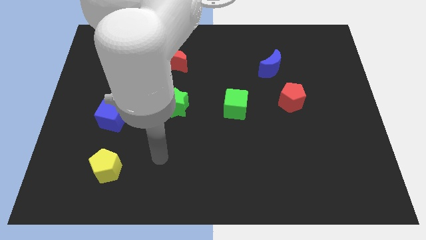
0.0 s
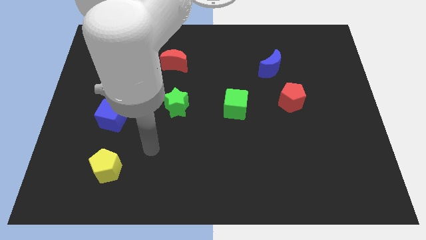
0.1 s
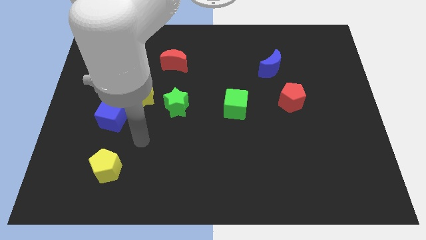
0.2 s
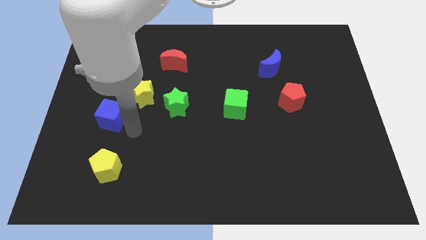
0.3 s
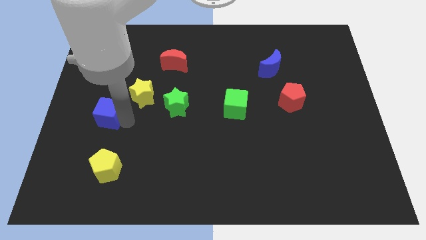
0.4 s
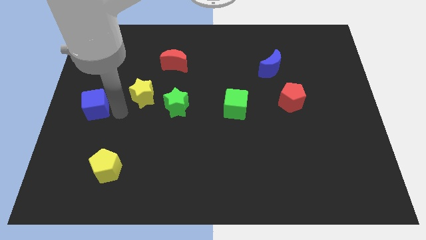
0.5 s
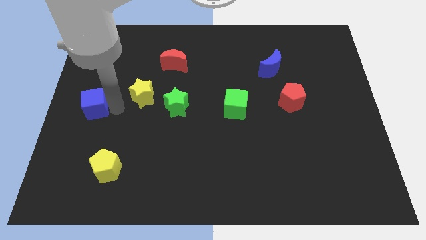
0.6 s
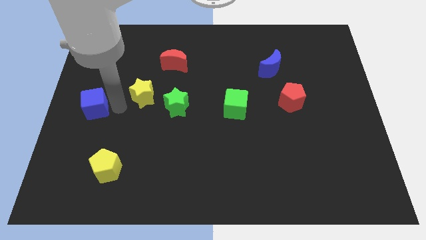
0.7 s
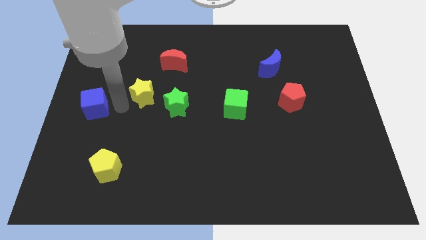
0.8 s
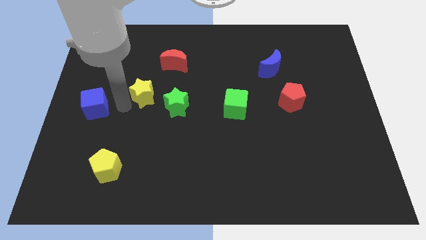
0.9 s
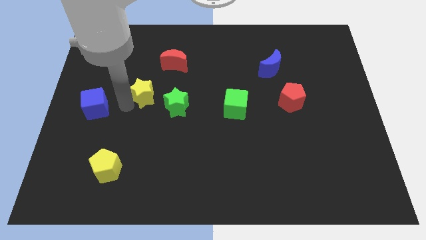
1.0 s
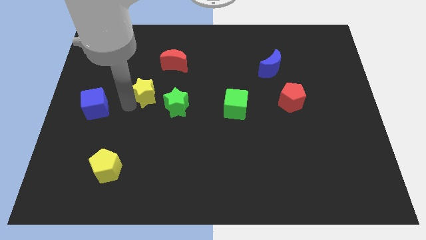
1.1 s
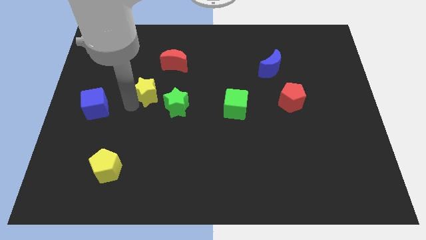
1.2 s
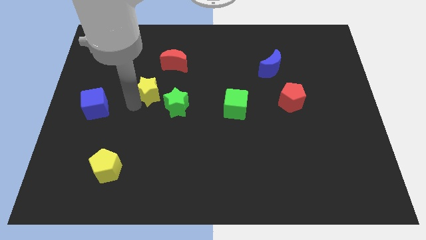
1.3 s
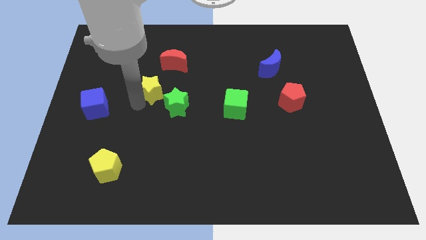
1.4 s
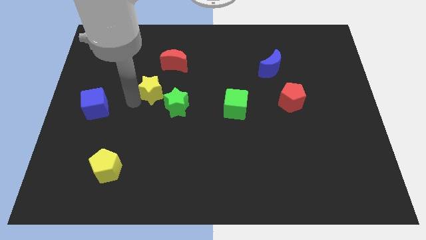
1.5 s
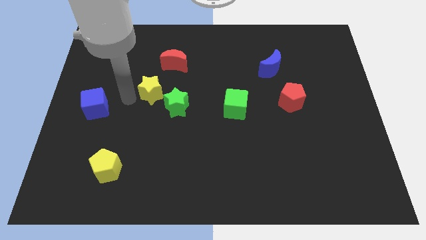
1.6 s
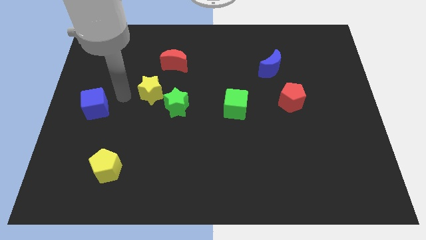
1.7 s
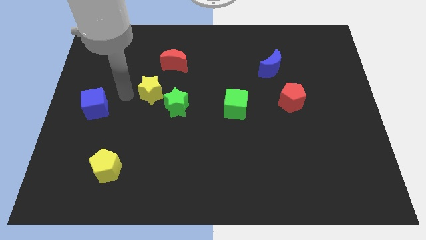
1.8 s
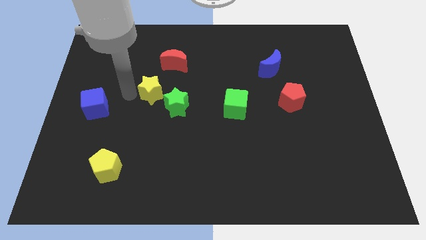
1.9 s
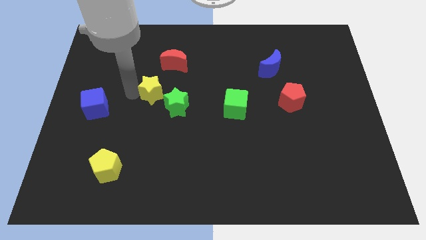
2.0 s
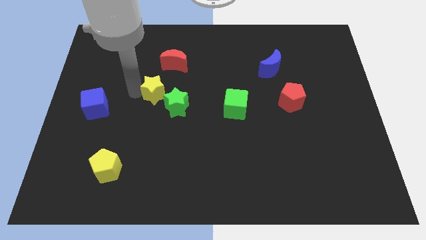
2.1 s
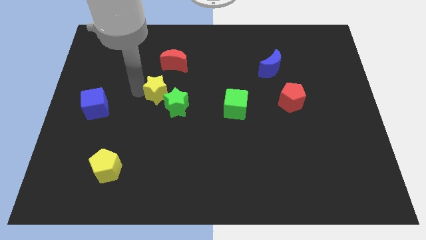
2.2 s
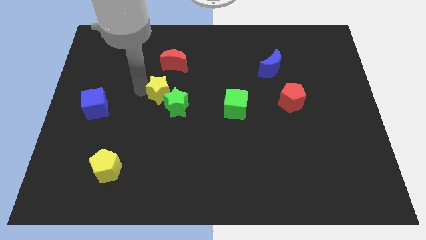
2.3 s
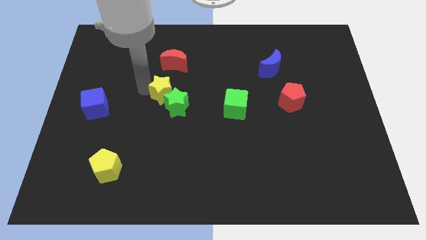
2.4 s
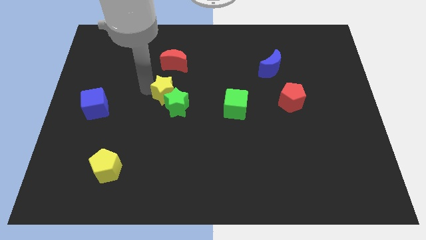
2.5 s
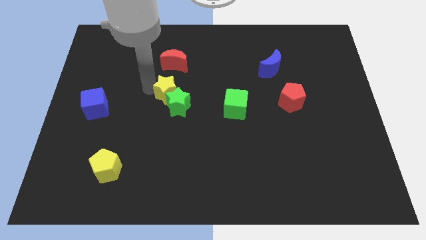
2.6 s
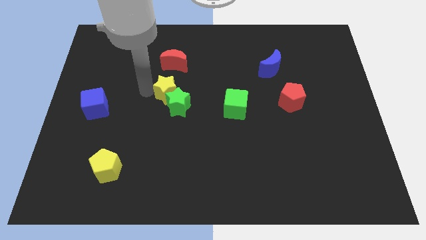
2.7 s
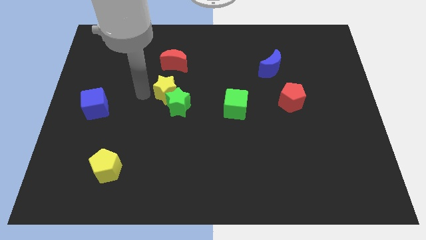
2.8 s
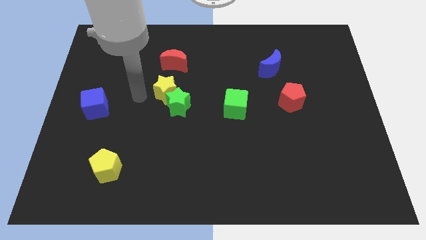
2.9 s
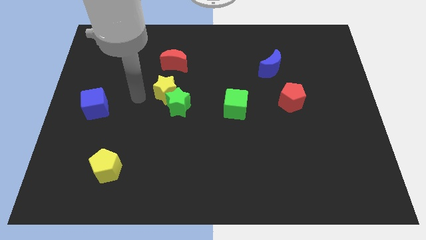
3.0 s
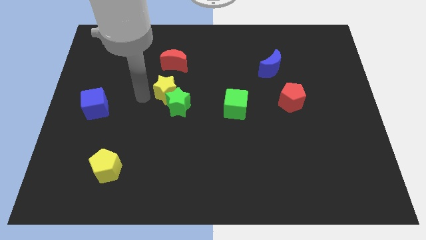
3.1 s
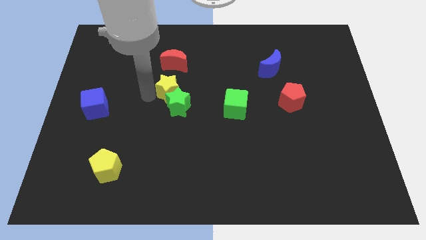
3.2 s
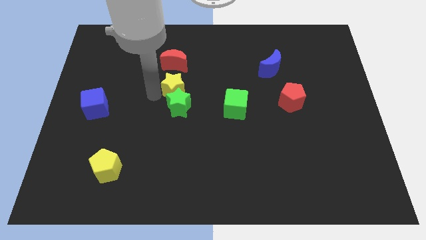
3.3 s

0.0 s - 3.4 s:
slightly slide the yellow star right

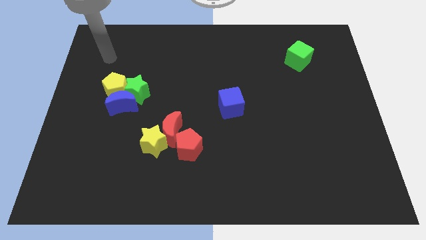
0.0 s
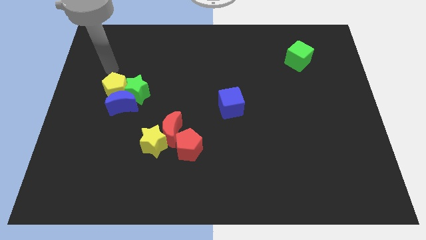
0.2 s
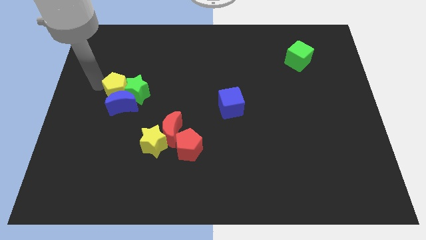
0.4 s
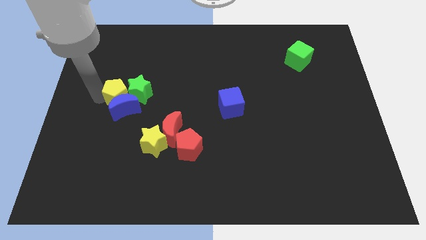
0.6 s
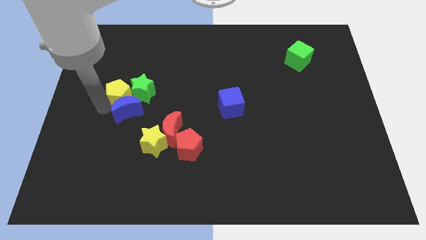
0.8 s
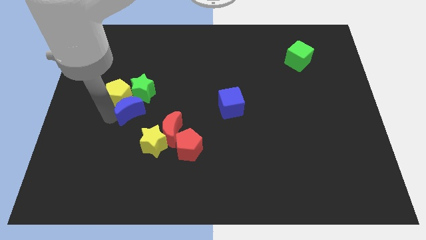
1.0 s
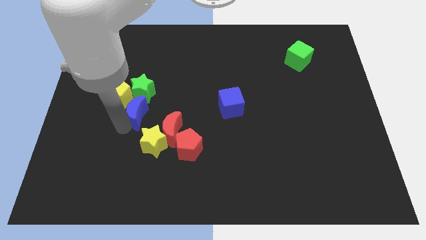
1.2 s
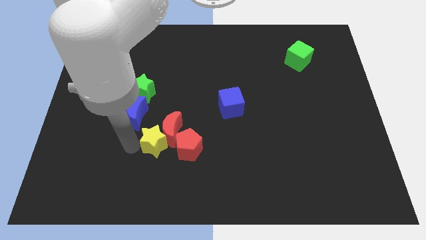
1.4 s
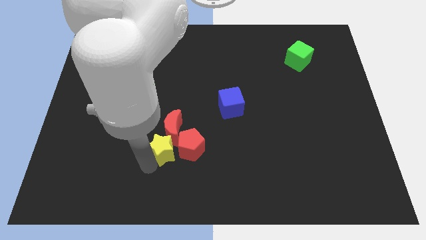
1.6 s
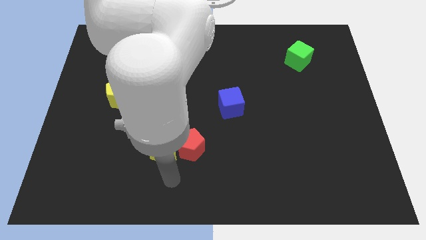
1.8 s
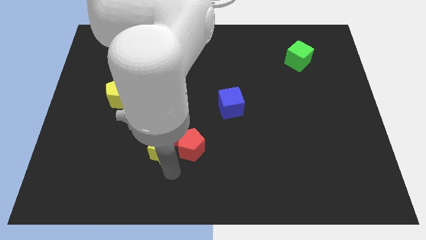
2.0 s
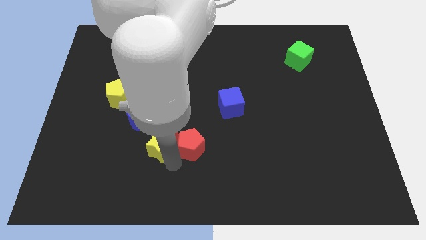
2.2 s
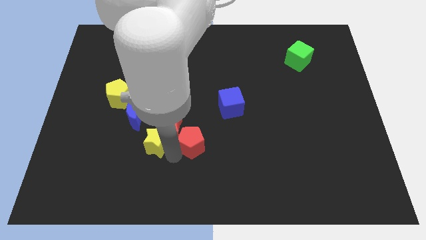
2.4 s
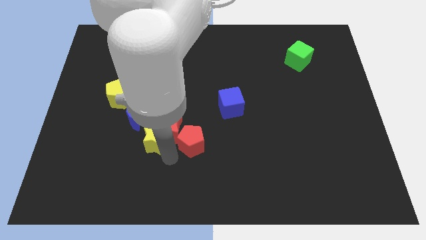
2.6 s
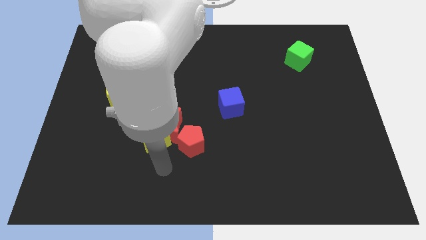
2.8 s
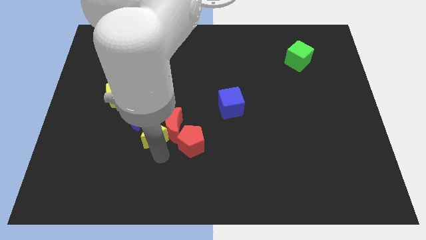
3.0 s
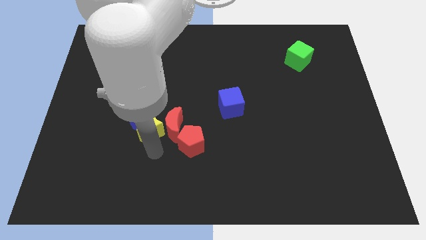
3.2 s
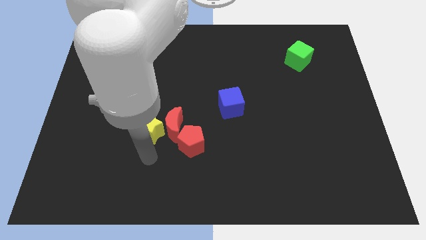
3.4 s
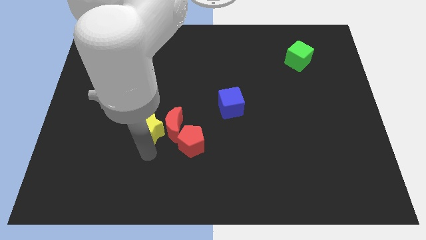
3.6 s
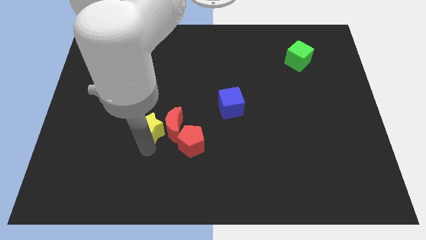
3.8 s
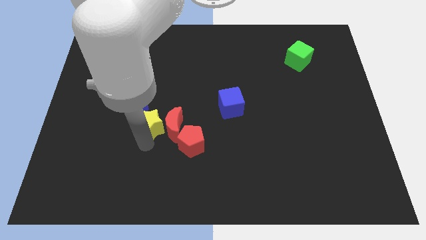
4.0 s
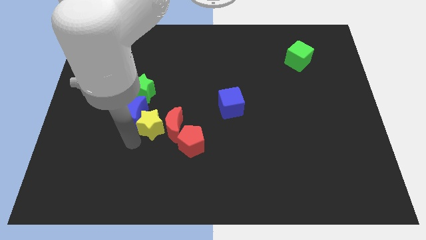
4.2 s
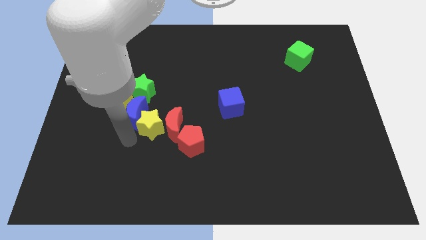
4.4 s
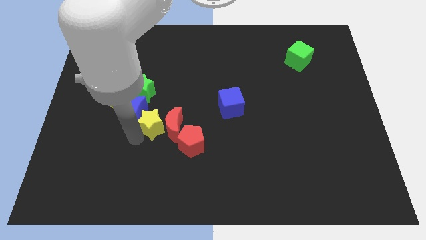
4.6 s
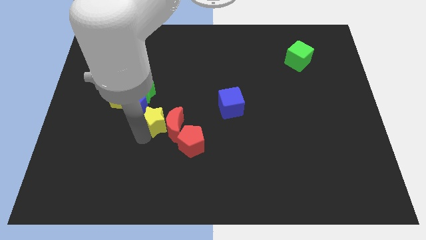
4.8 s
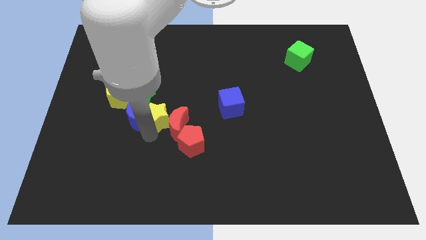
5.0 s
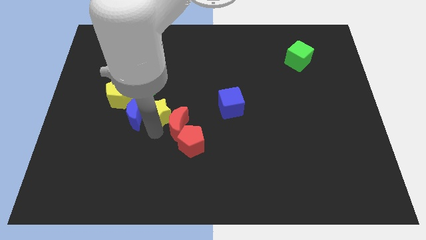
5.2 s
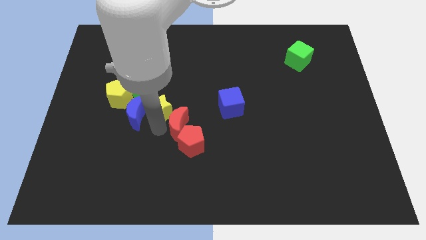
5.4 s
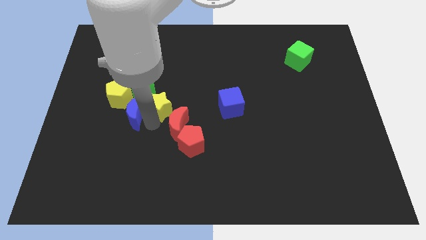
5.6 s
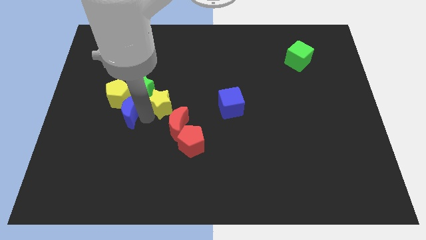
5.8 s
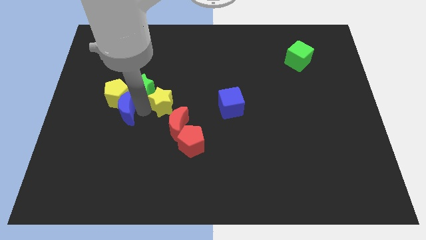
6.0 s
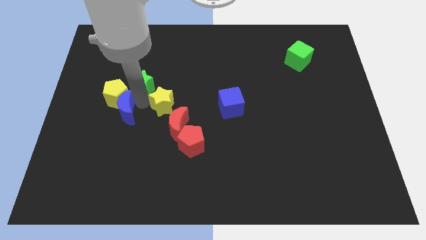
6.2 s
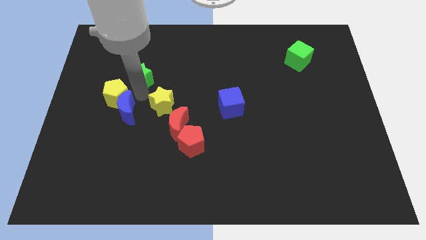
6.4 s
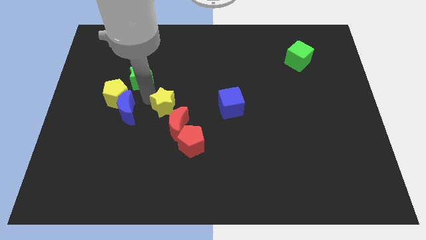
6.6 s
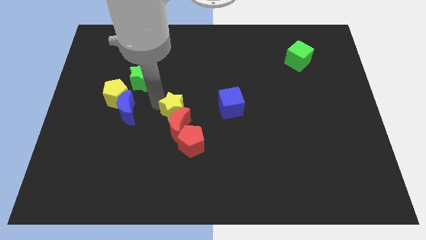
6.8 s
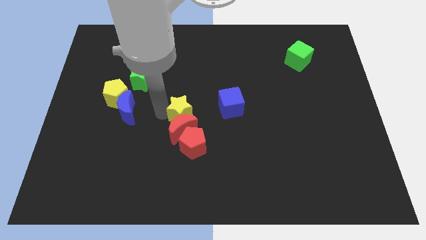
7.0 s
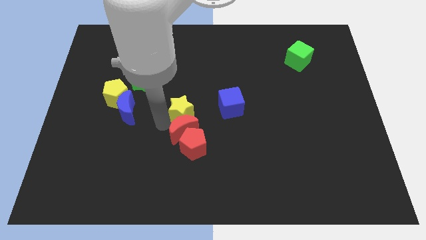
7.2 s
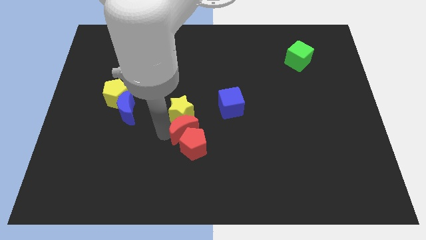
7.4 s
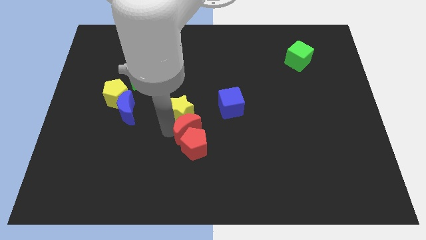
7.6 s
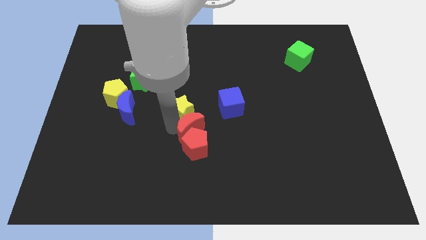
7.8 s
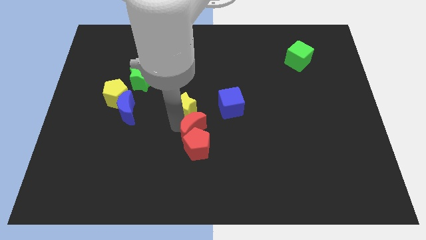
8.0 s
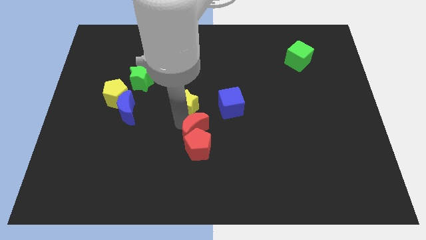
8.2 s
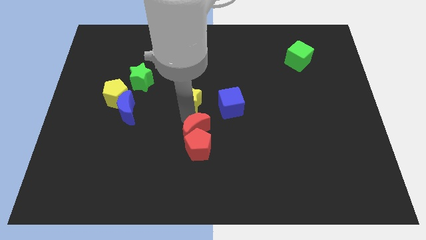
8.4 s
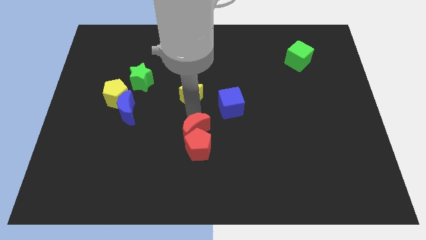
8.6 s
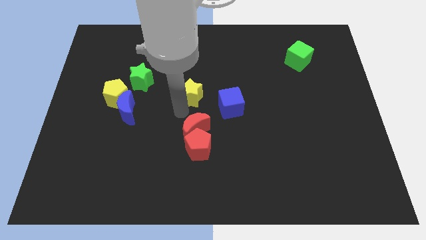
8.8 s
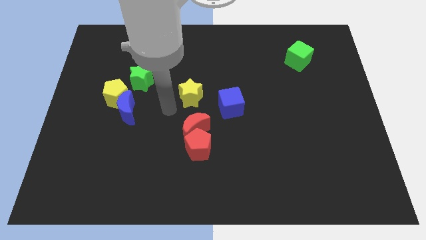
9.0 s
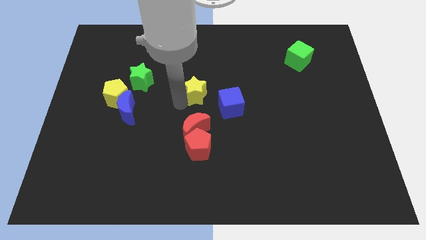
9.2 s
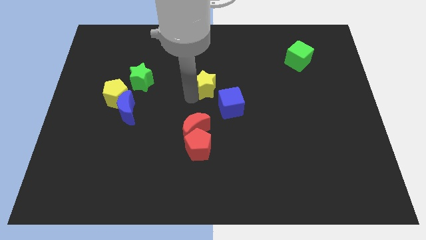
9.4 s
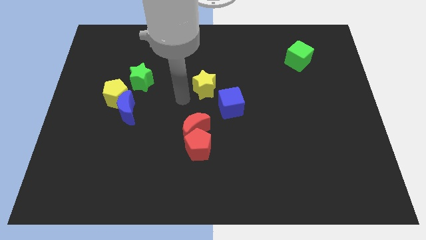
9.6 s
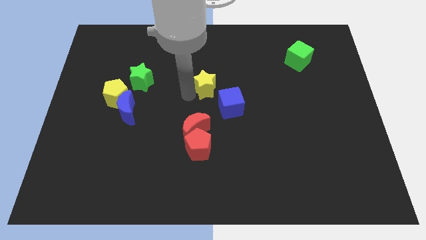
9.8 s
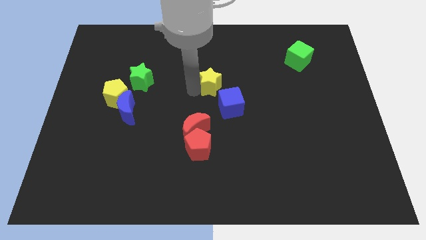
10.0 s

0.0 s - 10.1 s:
push the yellow star upwards and to the right
